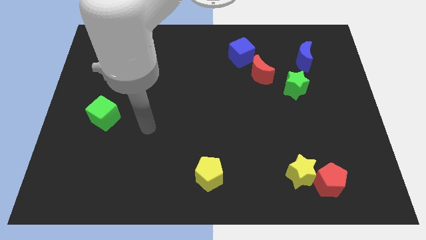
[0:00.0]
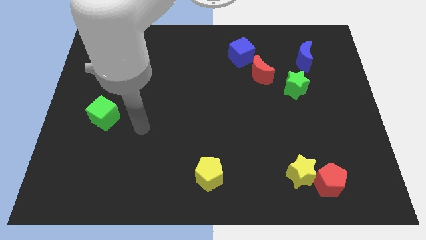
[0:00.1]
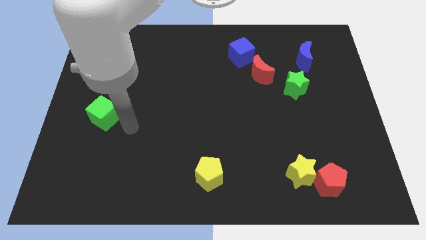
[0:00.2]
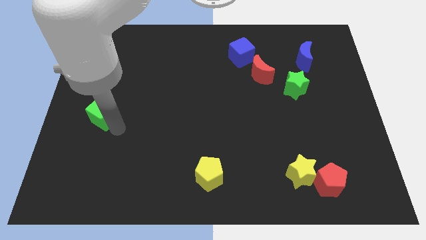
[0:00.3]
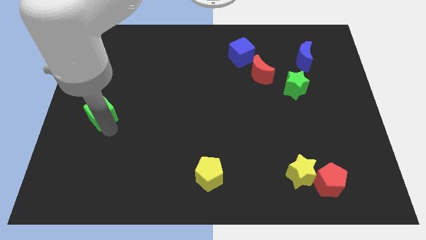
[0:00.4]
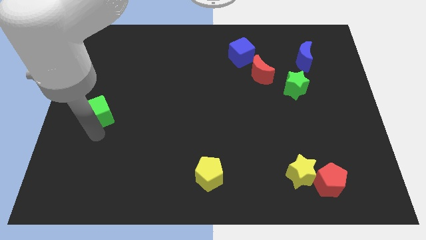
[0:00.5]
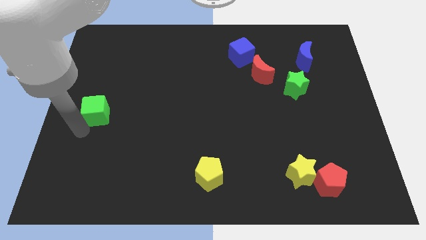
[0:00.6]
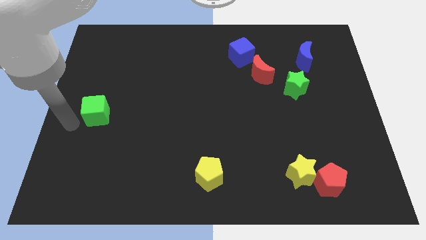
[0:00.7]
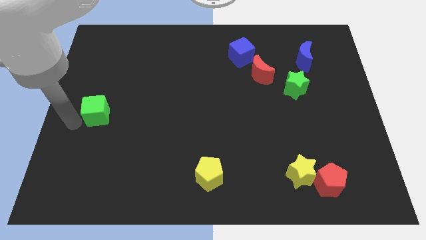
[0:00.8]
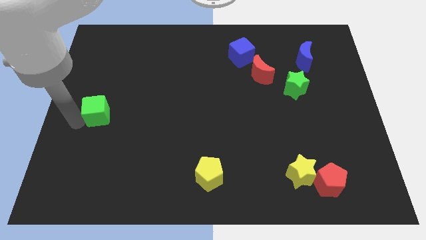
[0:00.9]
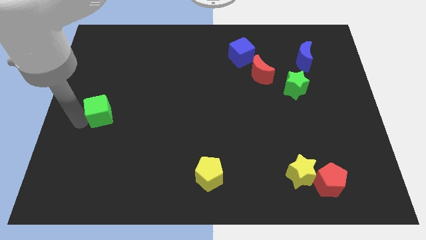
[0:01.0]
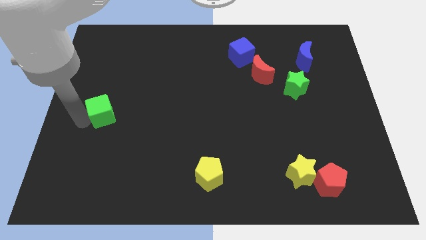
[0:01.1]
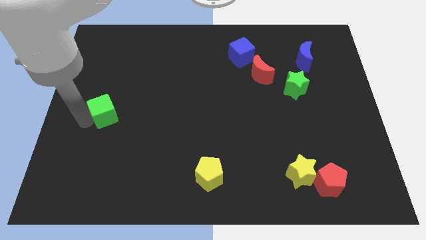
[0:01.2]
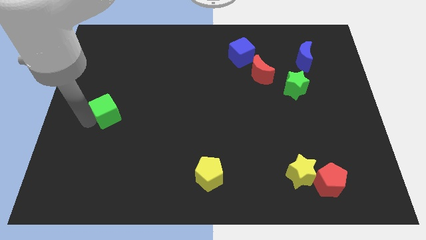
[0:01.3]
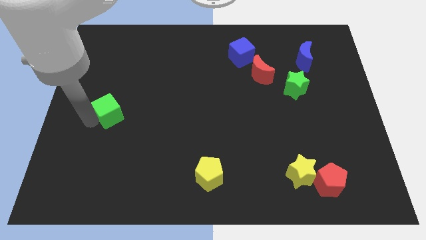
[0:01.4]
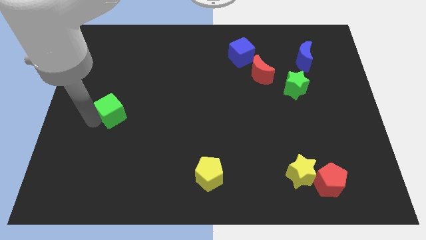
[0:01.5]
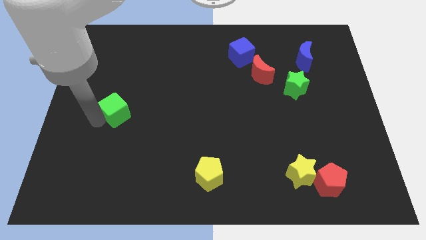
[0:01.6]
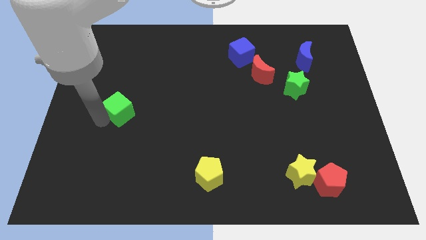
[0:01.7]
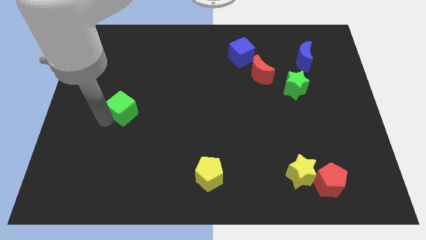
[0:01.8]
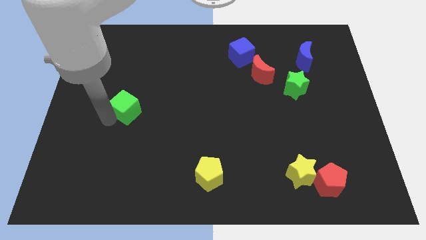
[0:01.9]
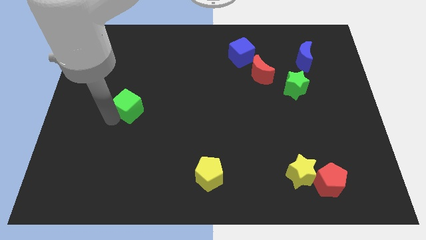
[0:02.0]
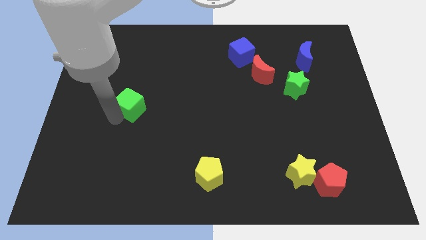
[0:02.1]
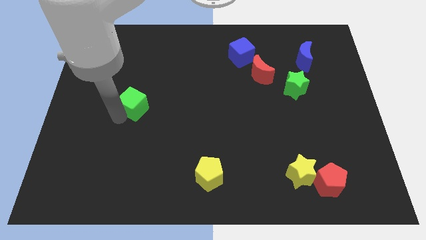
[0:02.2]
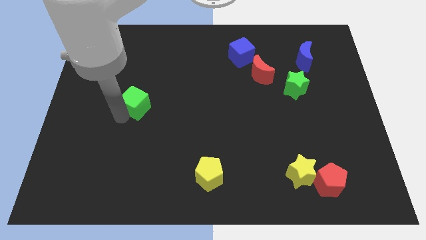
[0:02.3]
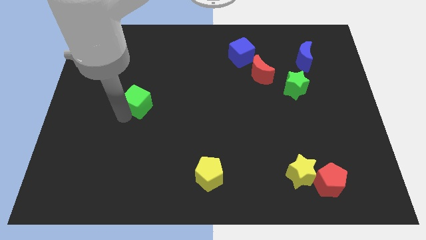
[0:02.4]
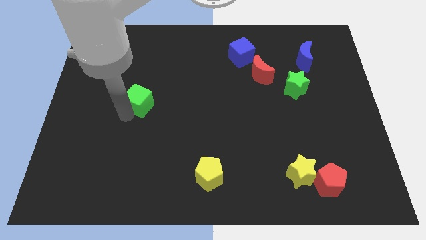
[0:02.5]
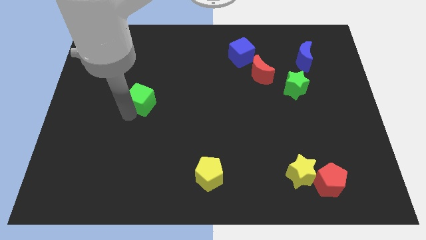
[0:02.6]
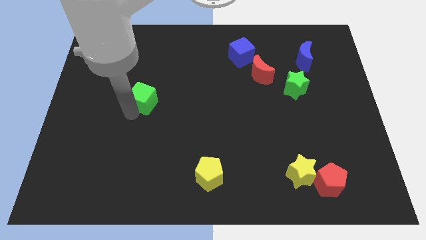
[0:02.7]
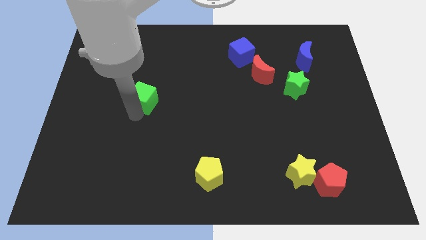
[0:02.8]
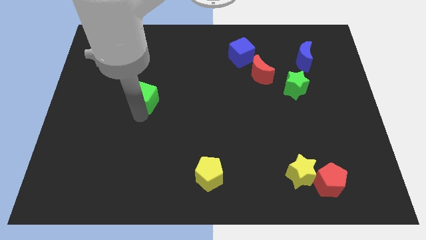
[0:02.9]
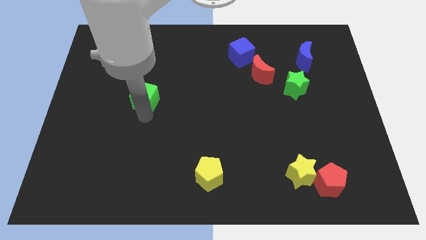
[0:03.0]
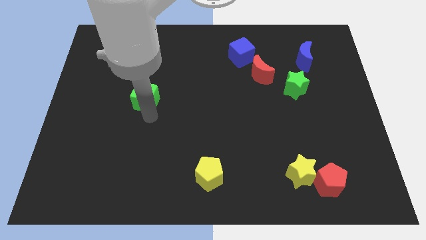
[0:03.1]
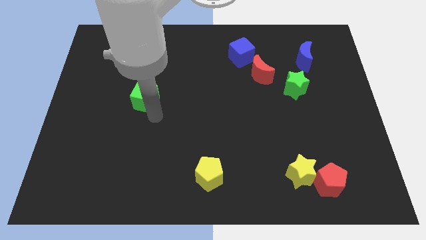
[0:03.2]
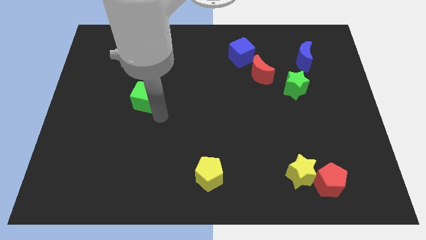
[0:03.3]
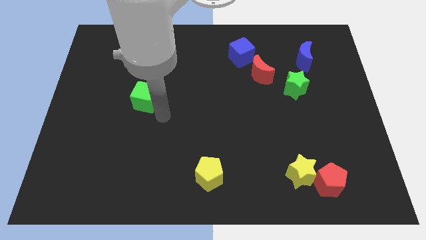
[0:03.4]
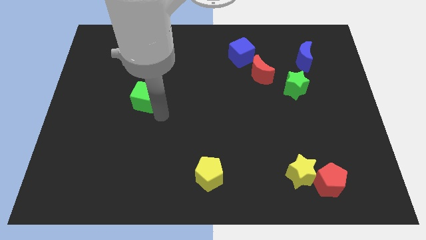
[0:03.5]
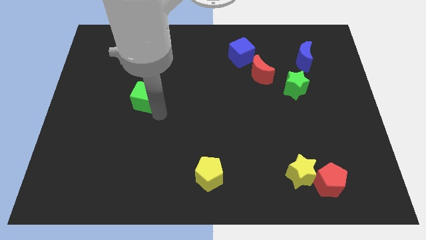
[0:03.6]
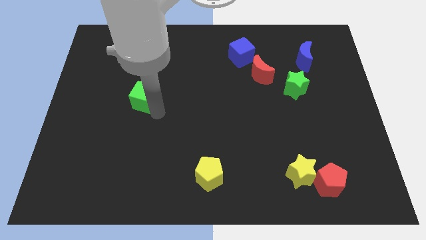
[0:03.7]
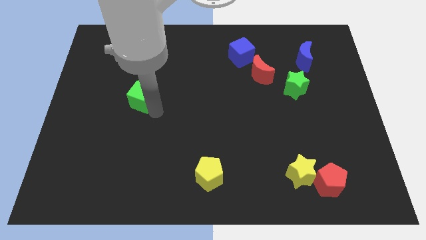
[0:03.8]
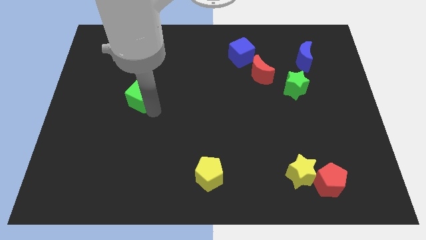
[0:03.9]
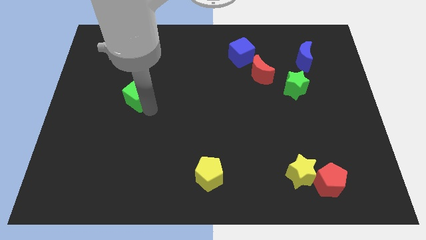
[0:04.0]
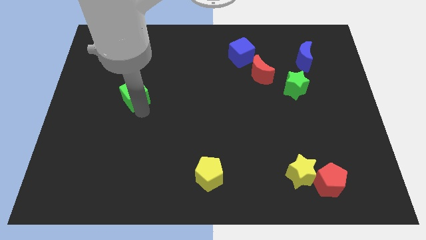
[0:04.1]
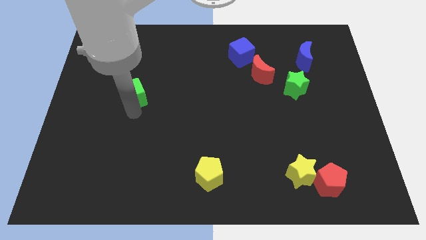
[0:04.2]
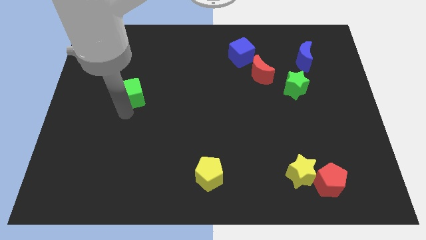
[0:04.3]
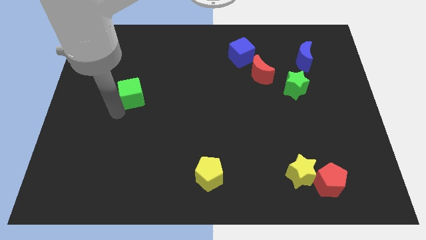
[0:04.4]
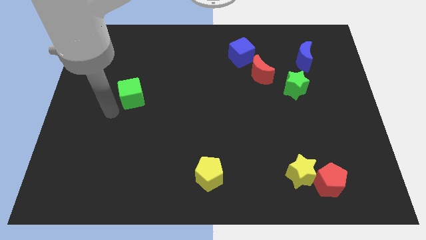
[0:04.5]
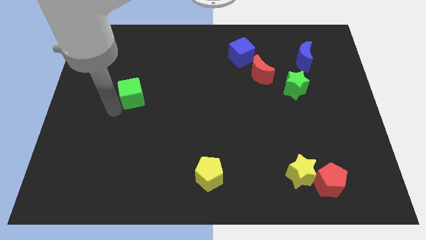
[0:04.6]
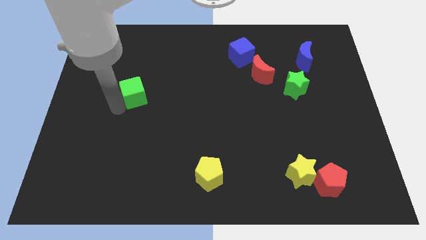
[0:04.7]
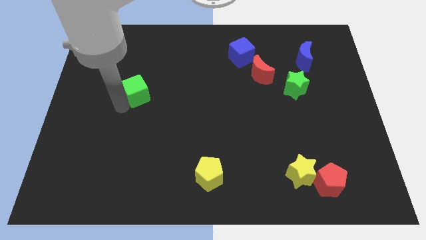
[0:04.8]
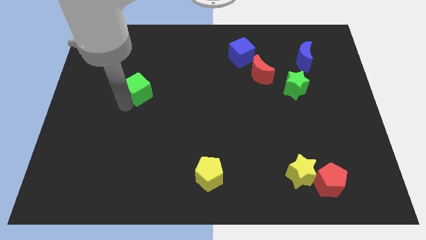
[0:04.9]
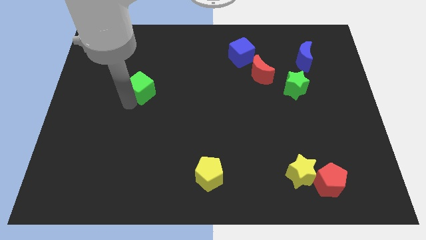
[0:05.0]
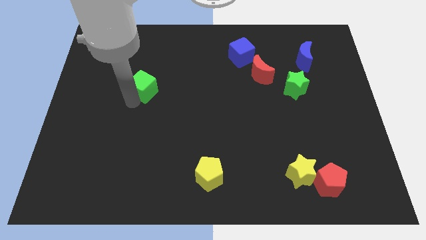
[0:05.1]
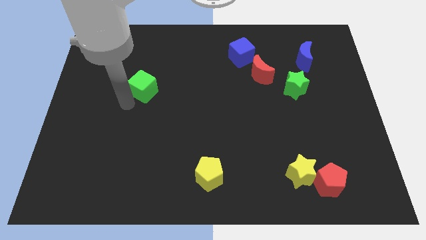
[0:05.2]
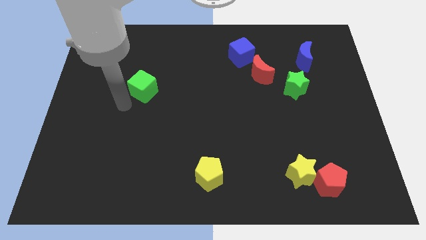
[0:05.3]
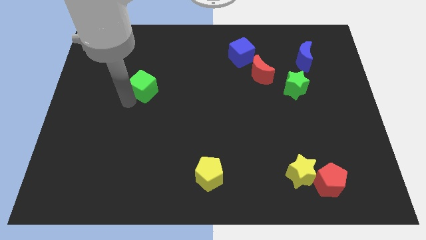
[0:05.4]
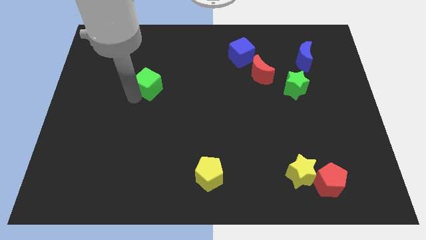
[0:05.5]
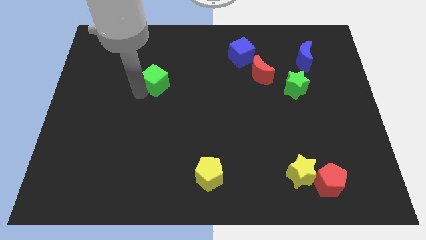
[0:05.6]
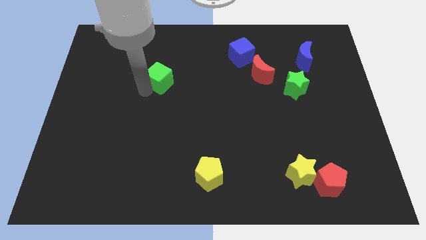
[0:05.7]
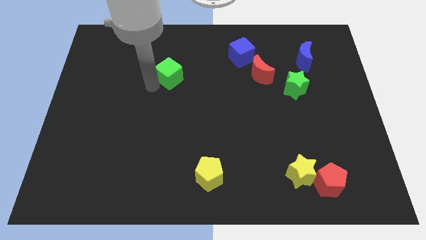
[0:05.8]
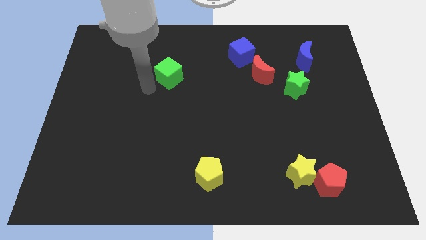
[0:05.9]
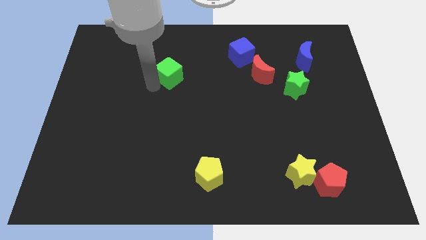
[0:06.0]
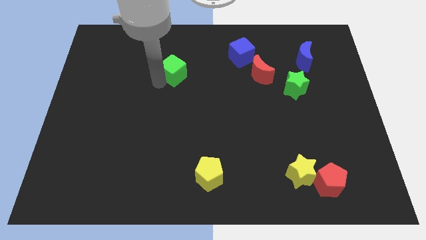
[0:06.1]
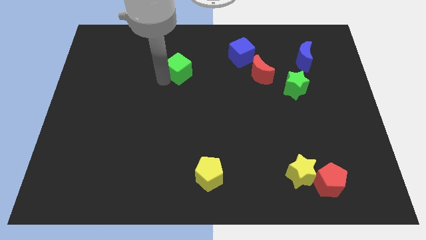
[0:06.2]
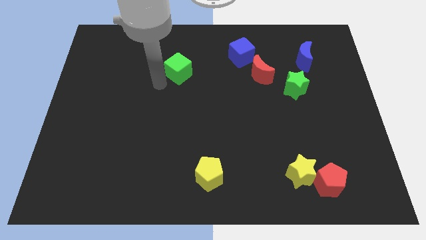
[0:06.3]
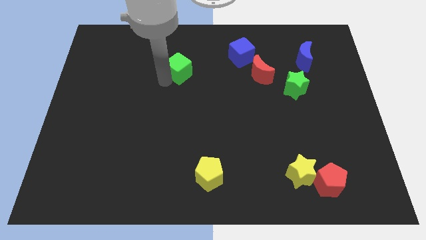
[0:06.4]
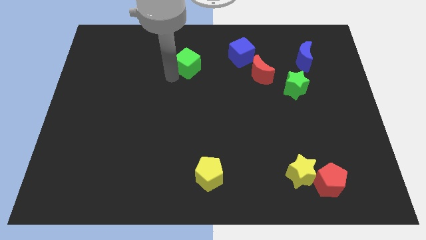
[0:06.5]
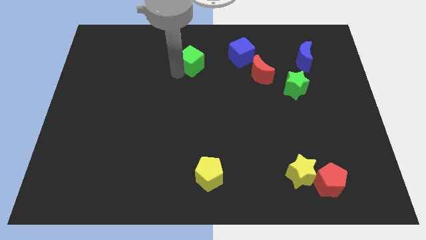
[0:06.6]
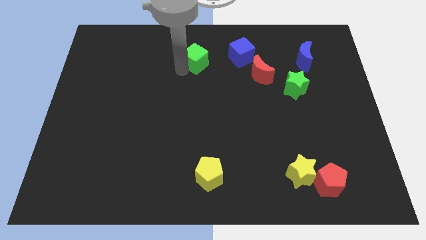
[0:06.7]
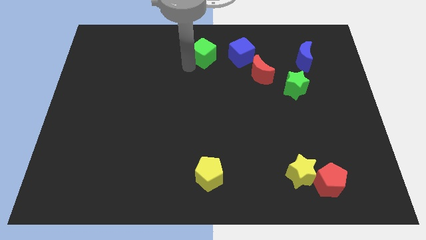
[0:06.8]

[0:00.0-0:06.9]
push the green cube to the top
